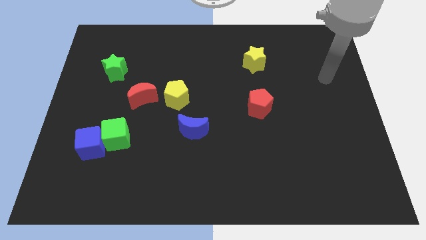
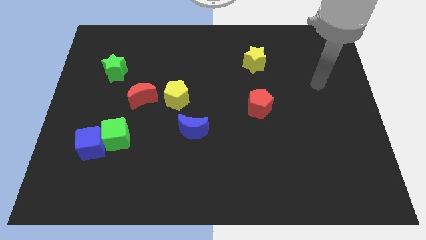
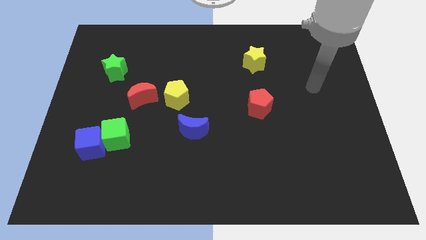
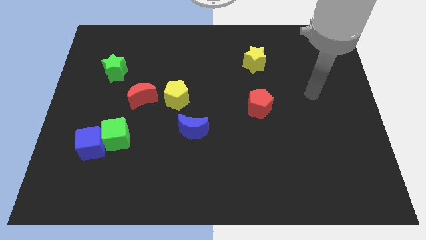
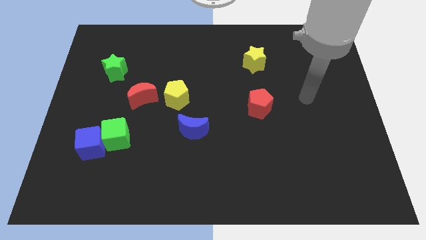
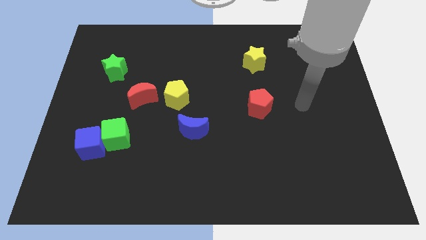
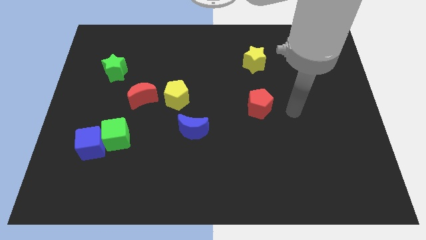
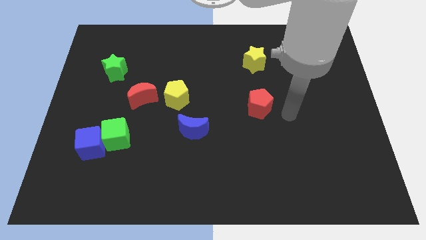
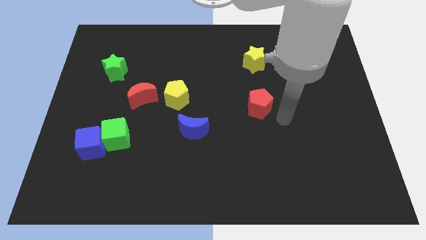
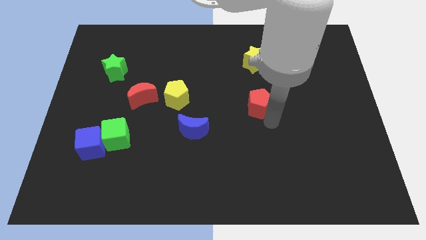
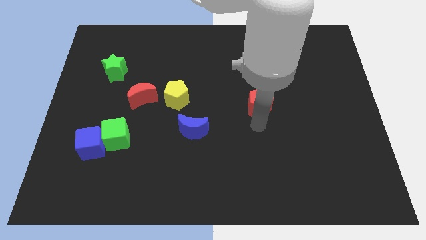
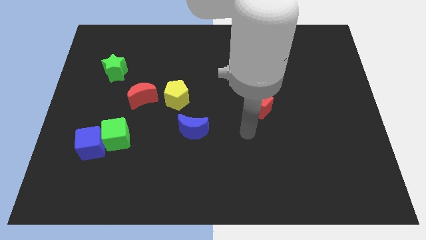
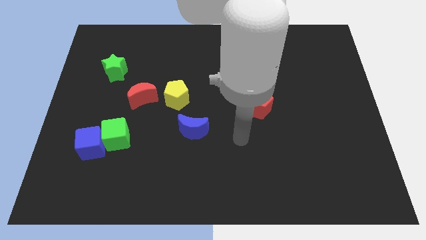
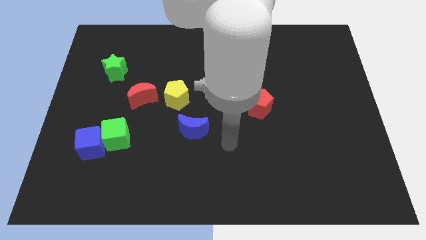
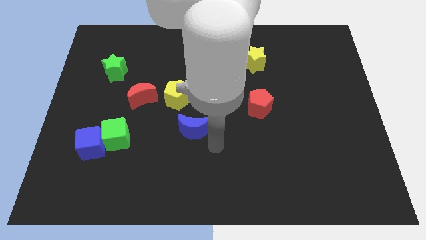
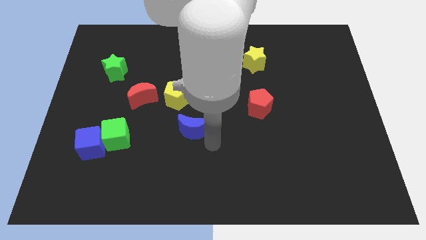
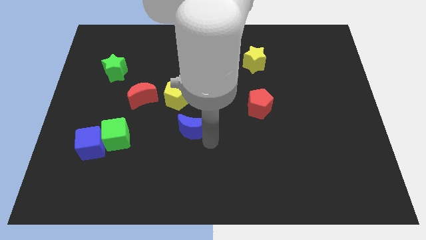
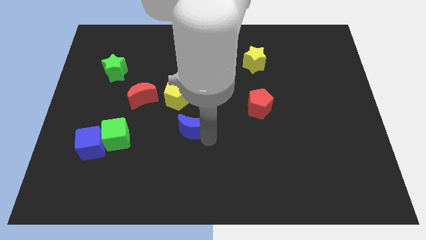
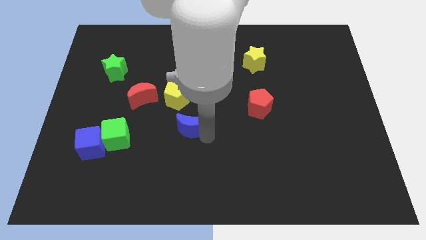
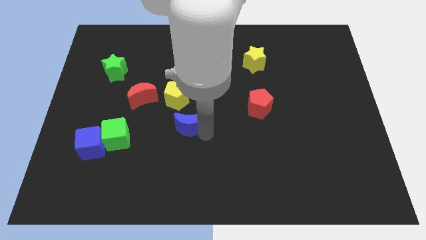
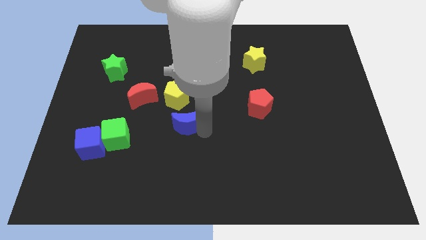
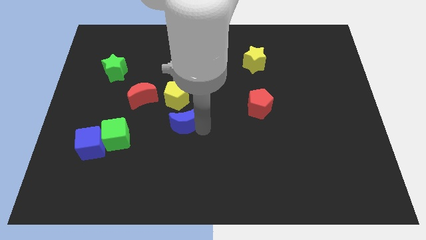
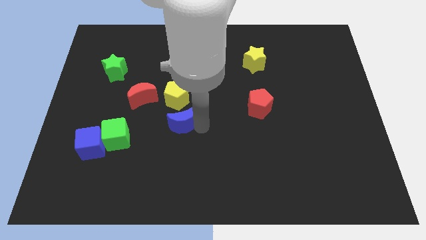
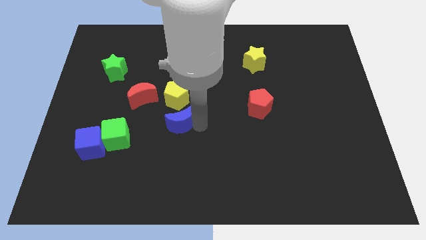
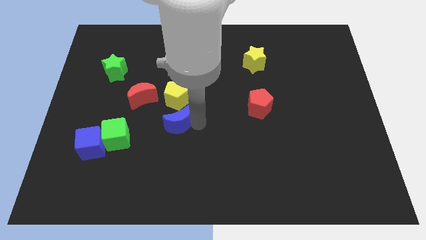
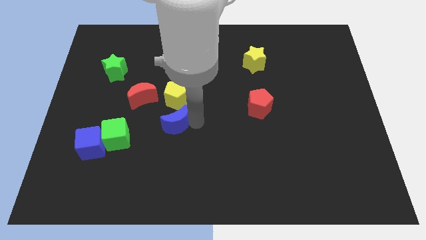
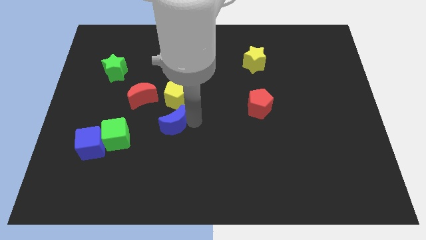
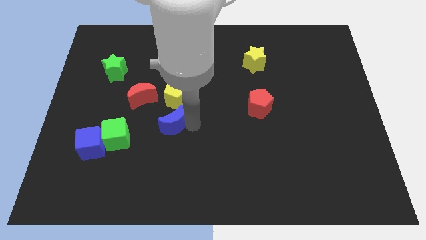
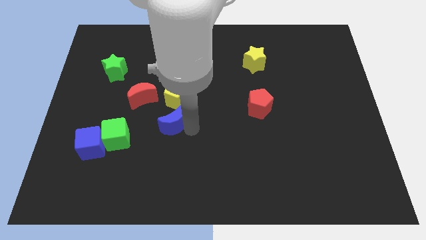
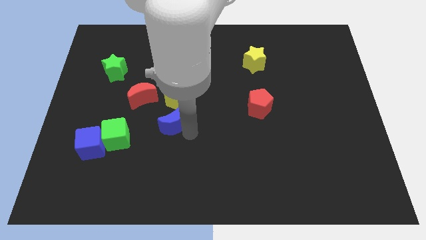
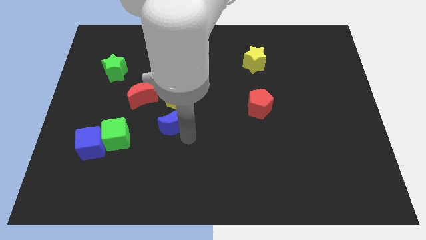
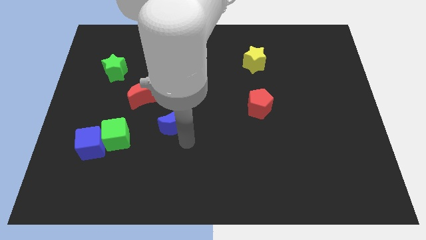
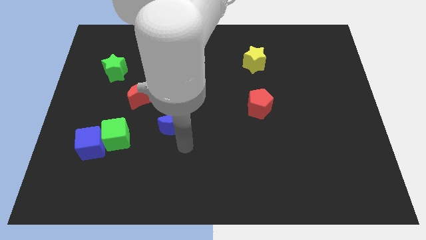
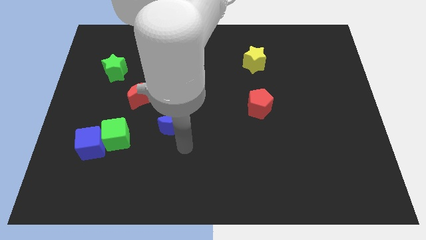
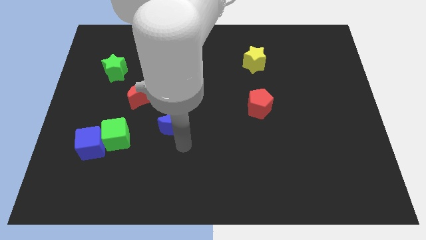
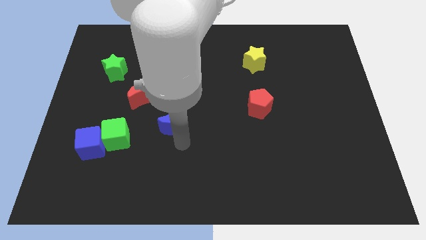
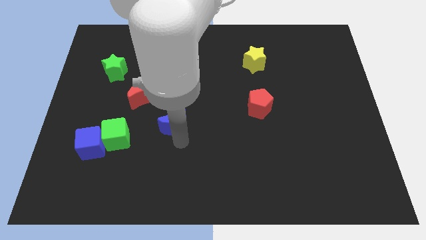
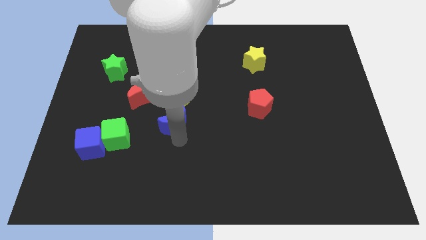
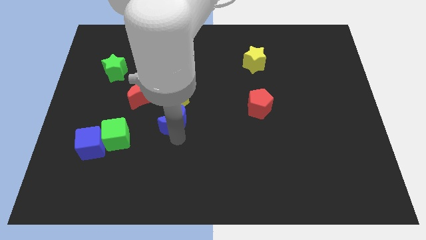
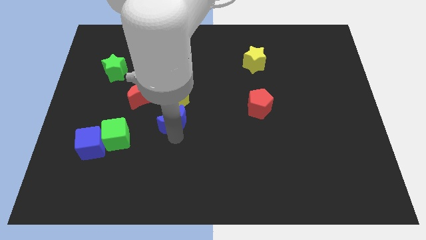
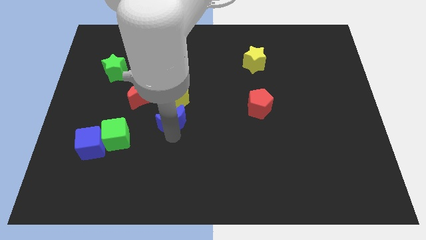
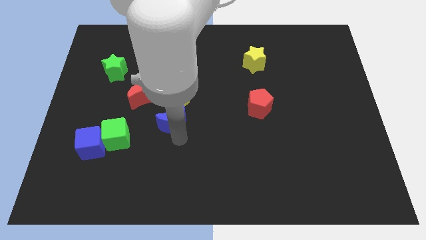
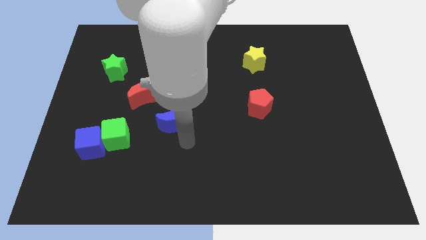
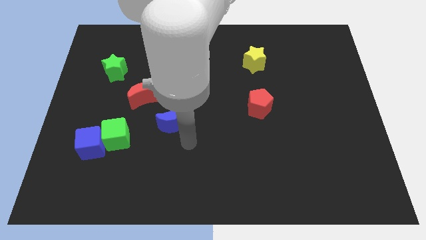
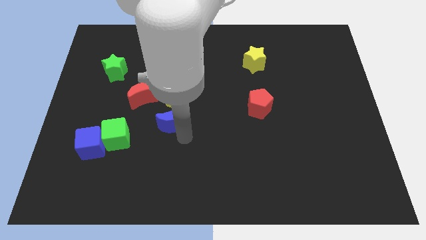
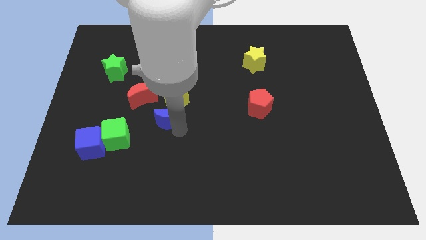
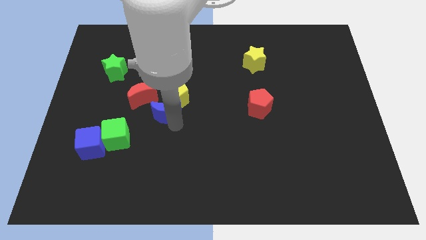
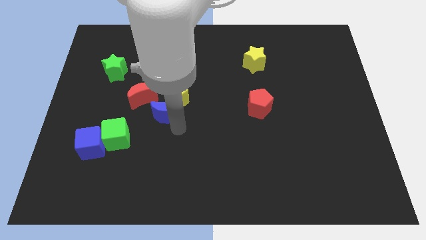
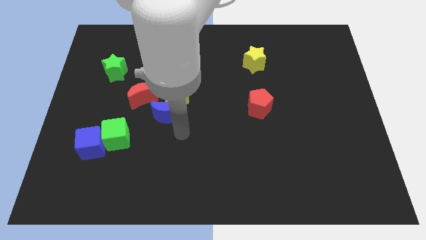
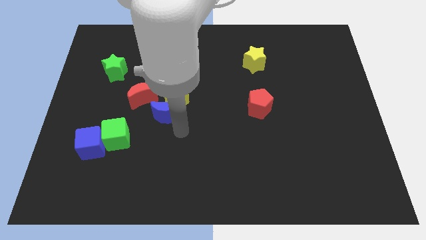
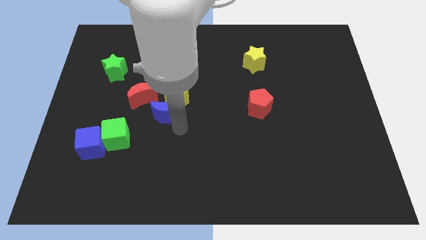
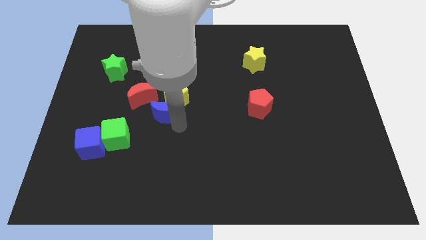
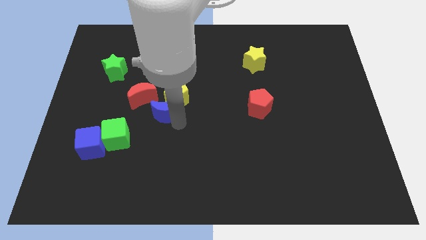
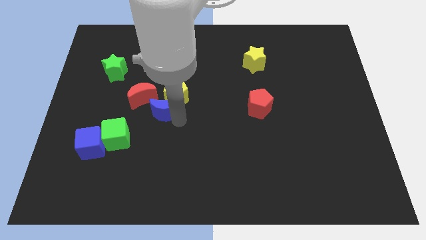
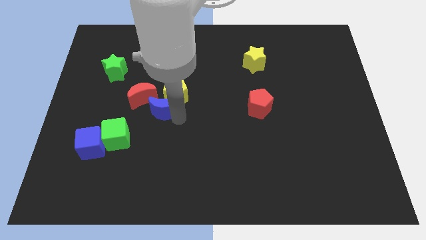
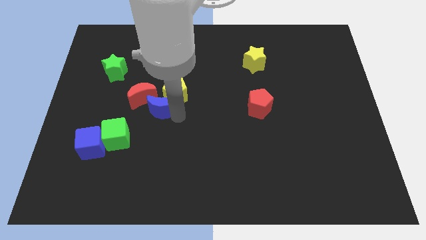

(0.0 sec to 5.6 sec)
push the blue moon towards the red moon

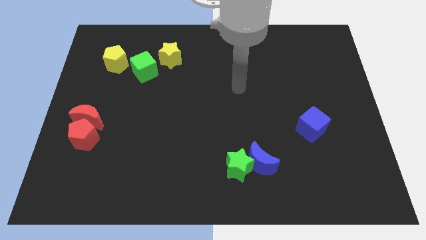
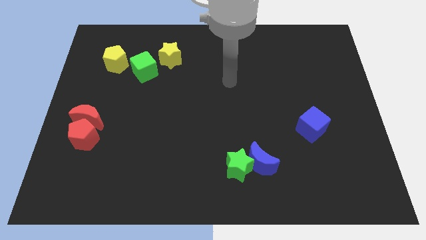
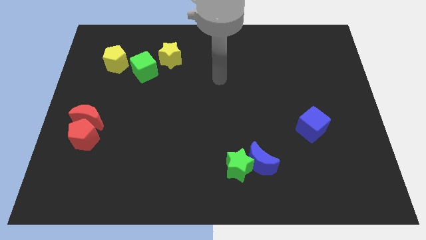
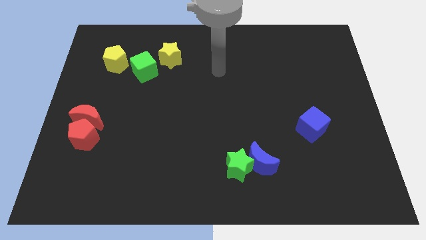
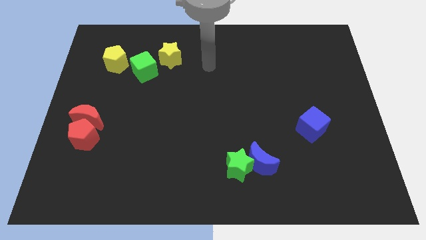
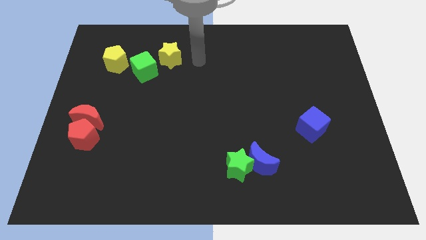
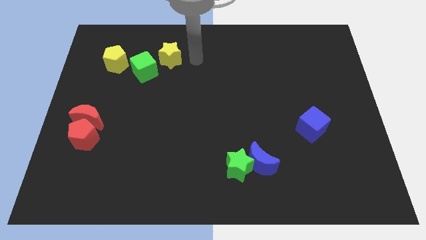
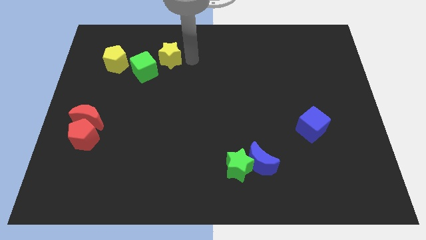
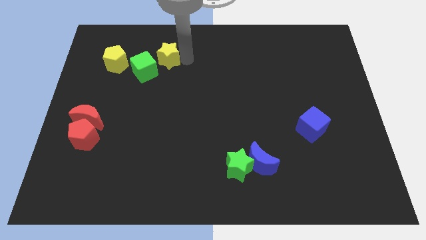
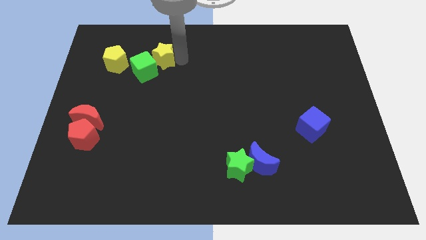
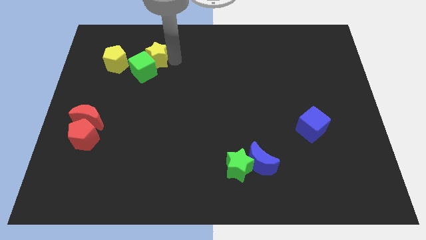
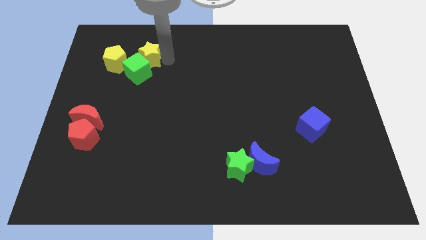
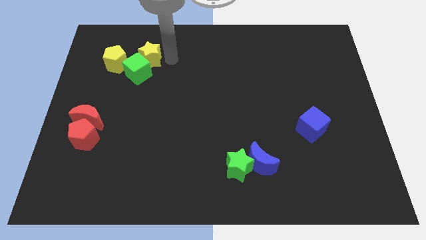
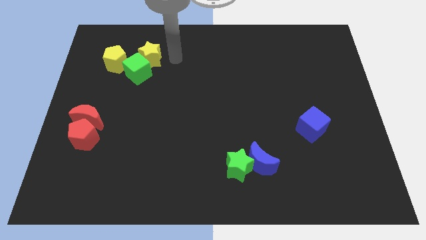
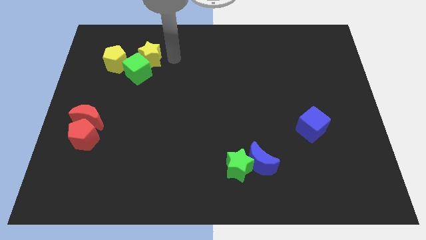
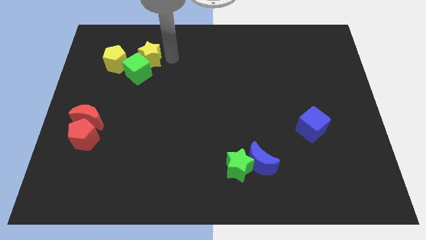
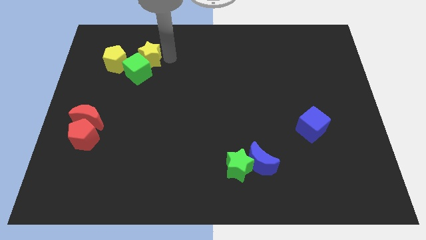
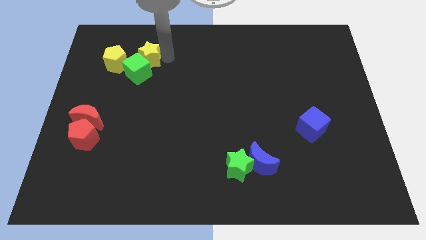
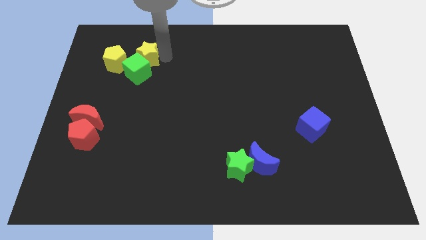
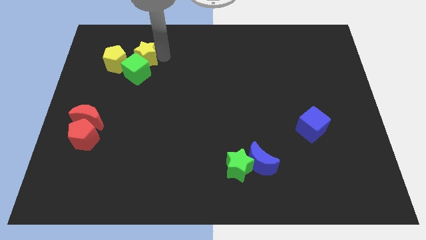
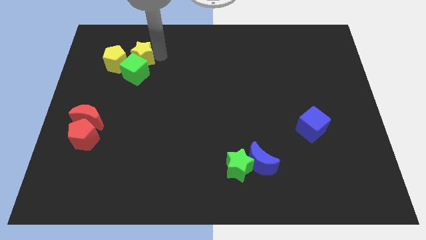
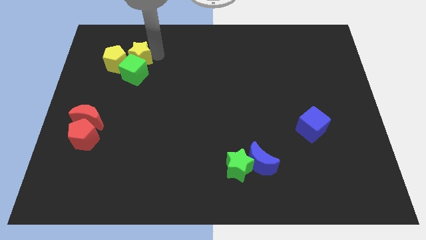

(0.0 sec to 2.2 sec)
put the yellow star close to the yellow pentagon
